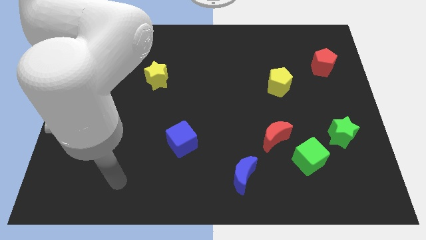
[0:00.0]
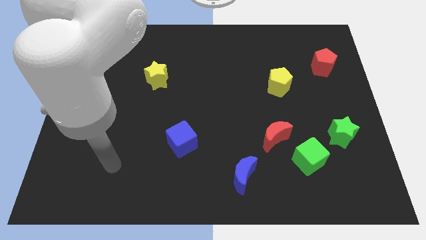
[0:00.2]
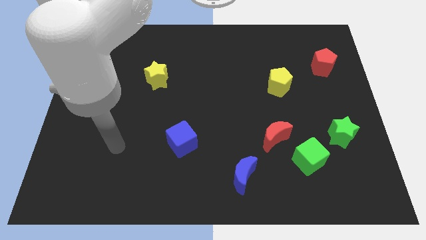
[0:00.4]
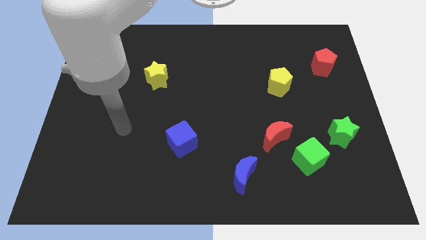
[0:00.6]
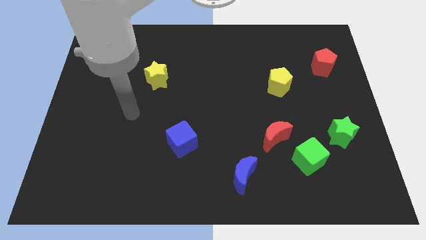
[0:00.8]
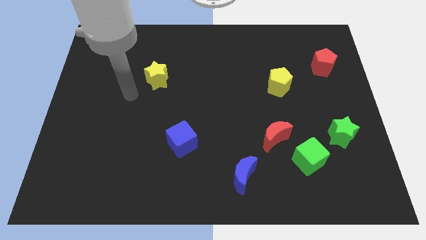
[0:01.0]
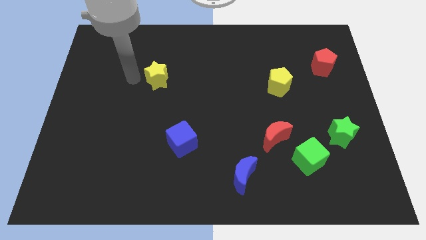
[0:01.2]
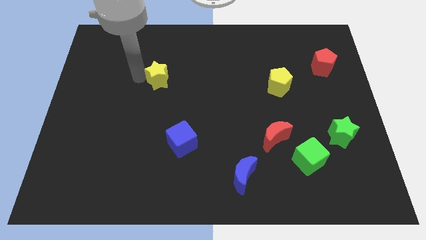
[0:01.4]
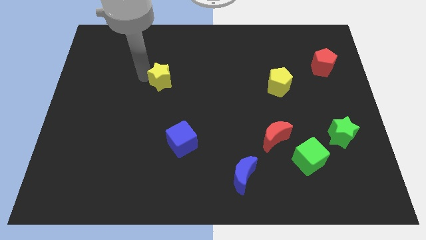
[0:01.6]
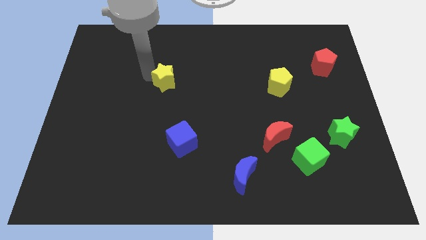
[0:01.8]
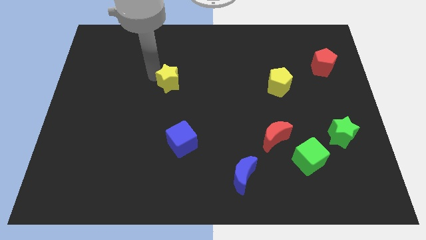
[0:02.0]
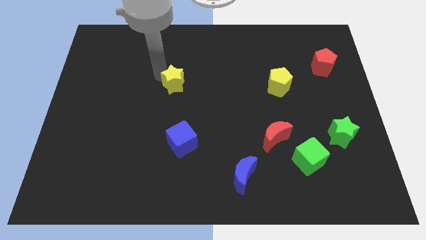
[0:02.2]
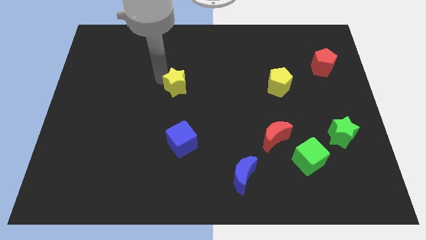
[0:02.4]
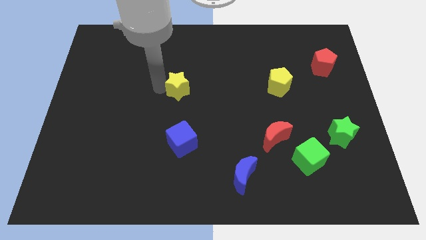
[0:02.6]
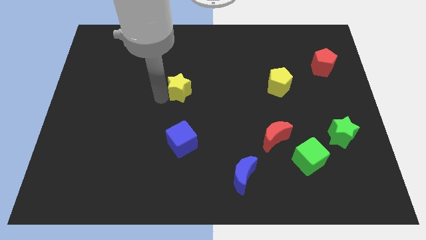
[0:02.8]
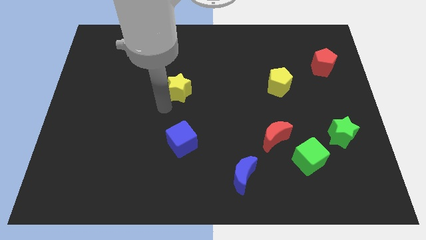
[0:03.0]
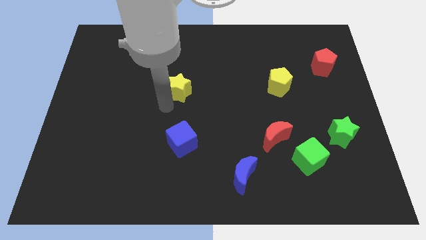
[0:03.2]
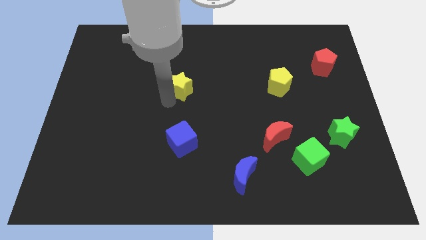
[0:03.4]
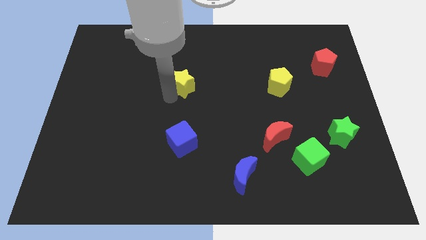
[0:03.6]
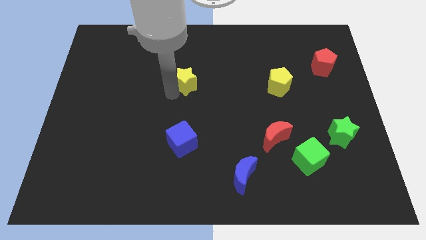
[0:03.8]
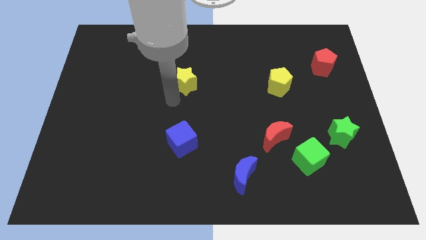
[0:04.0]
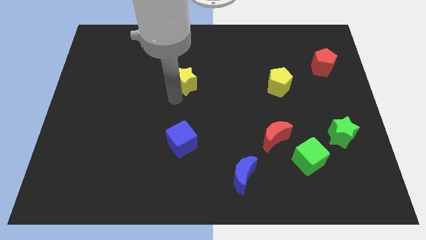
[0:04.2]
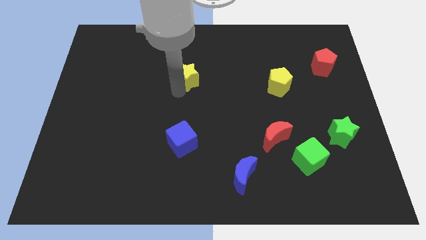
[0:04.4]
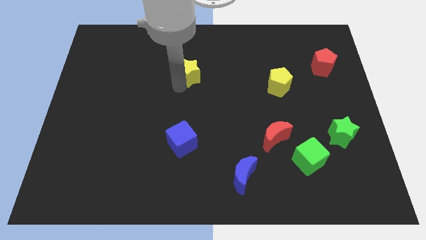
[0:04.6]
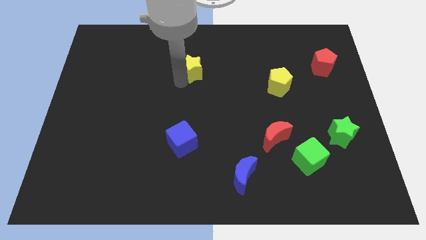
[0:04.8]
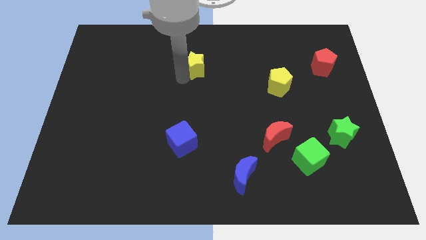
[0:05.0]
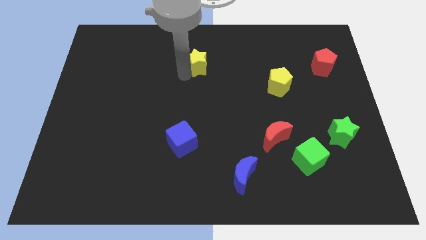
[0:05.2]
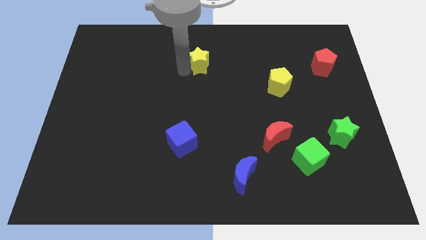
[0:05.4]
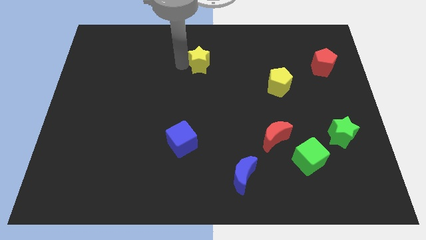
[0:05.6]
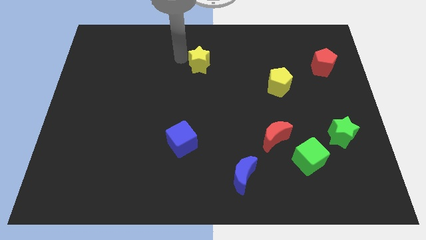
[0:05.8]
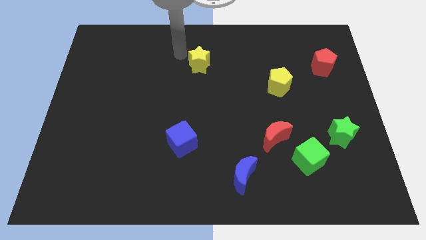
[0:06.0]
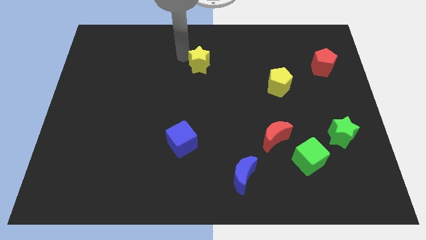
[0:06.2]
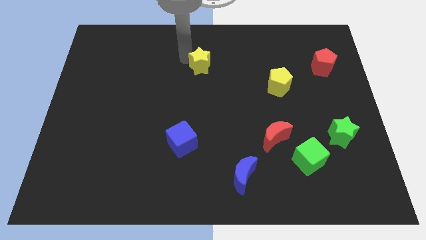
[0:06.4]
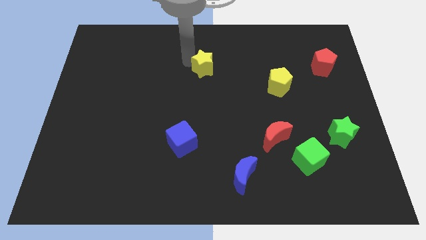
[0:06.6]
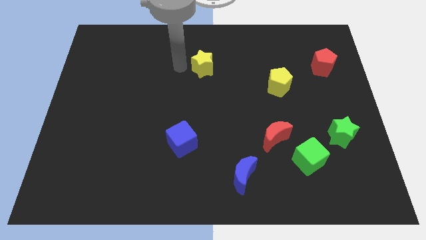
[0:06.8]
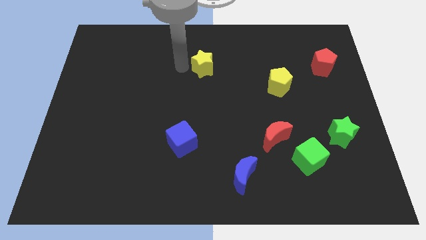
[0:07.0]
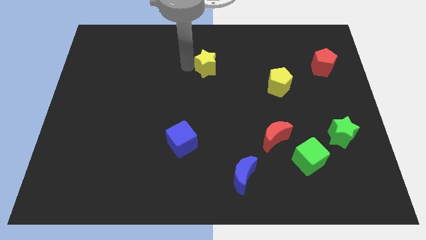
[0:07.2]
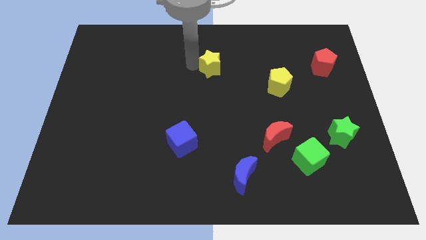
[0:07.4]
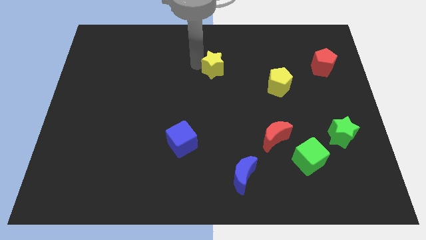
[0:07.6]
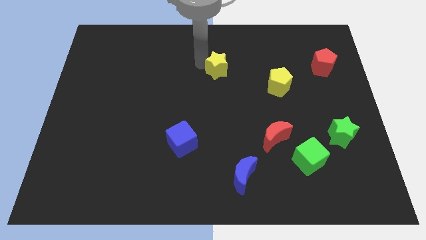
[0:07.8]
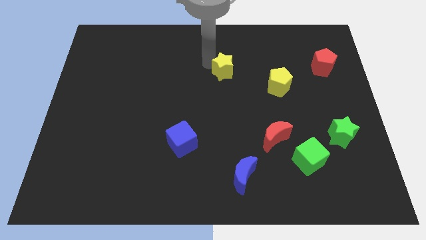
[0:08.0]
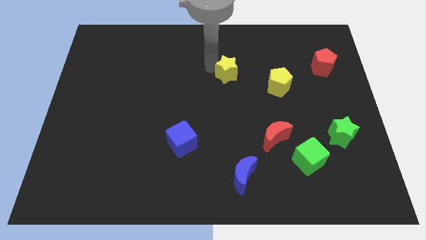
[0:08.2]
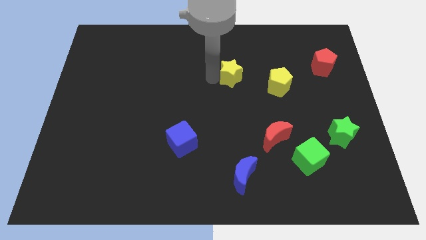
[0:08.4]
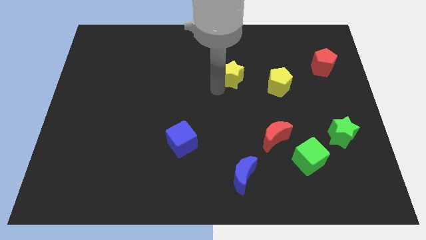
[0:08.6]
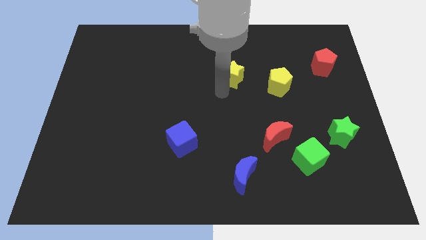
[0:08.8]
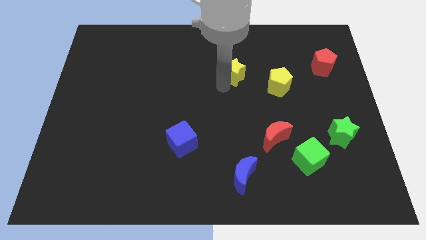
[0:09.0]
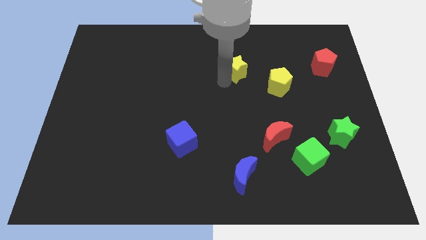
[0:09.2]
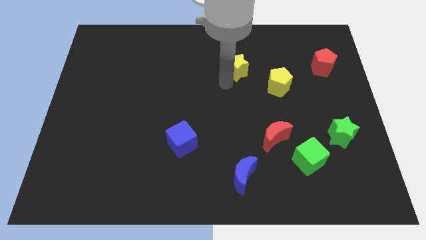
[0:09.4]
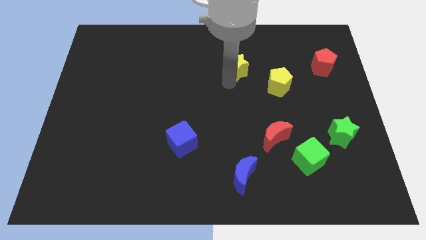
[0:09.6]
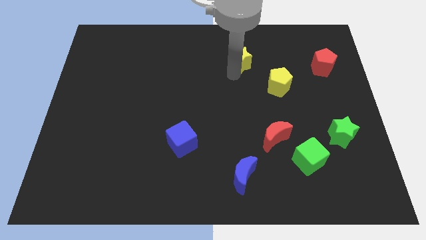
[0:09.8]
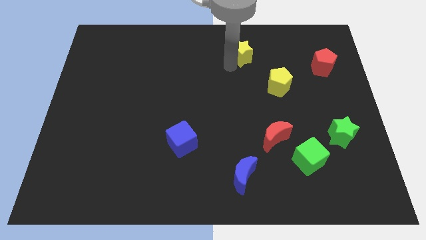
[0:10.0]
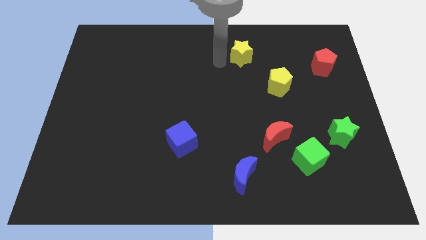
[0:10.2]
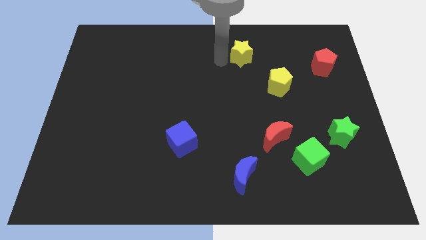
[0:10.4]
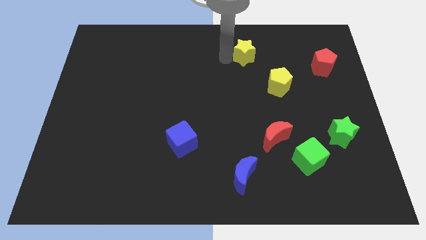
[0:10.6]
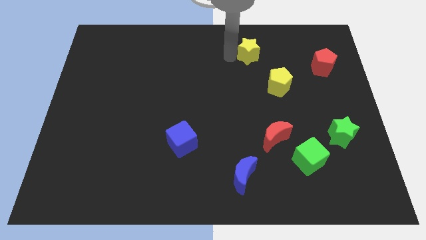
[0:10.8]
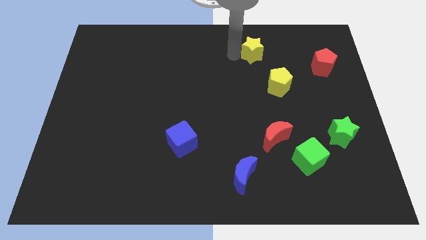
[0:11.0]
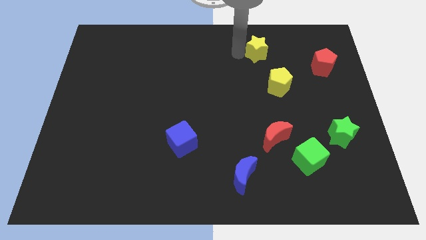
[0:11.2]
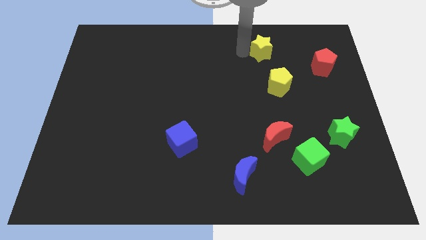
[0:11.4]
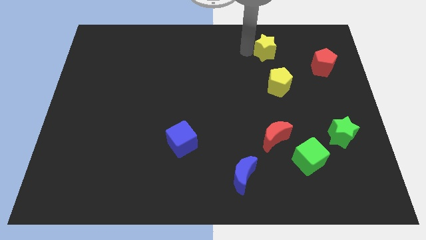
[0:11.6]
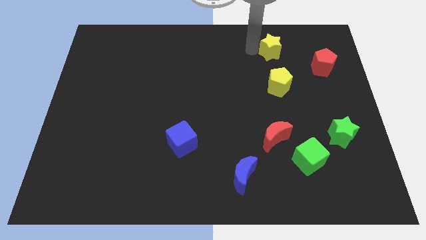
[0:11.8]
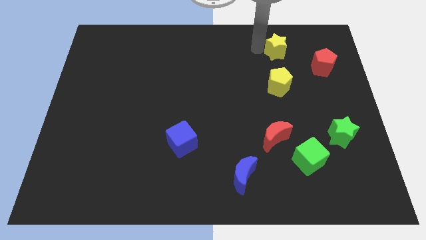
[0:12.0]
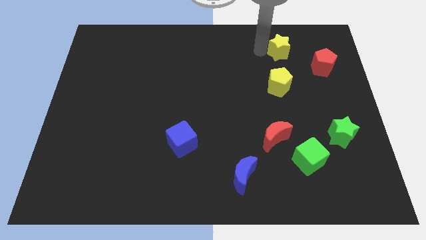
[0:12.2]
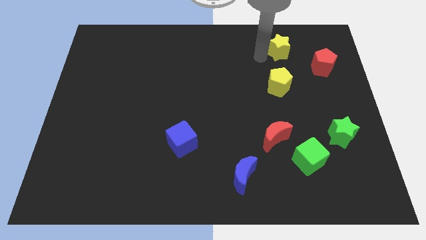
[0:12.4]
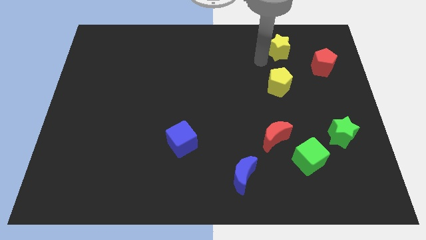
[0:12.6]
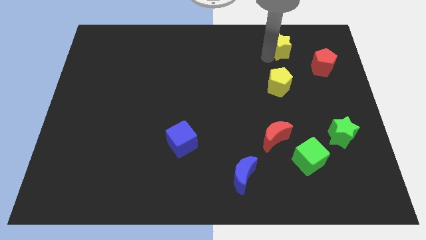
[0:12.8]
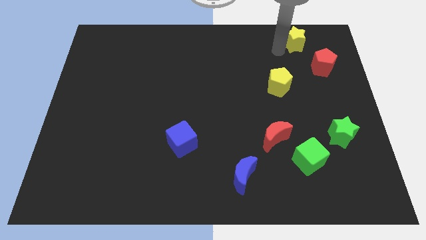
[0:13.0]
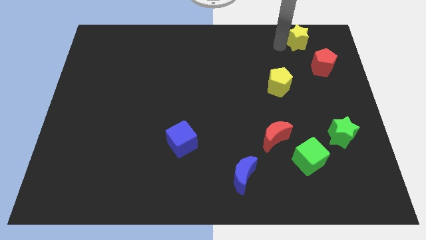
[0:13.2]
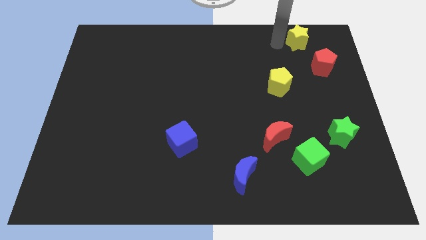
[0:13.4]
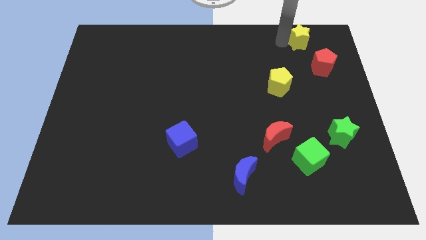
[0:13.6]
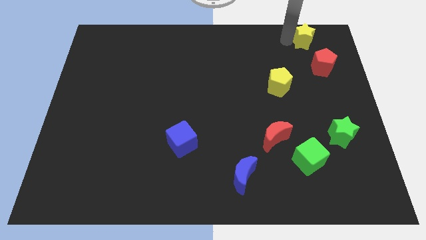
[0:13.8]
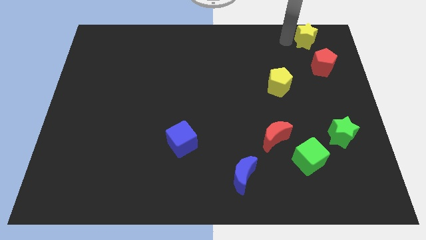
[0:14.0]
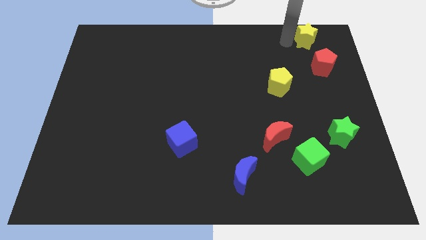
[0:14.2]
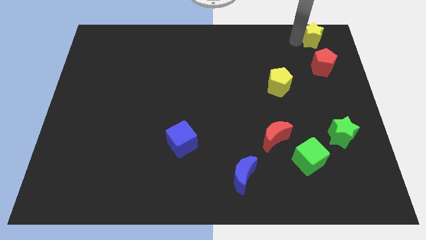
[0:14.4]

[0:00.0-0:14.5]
move the yellow star to the top right of the board
